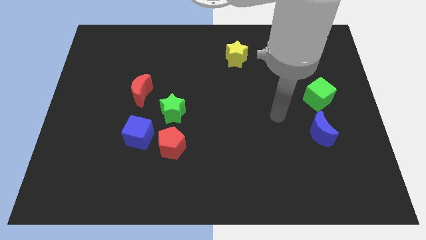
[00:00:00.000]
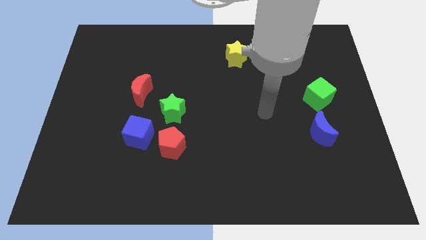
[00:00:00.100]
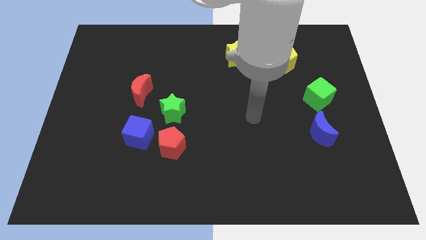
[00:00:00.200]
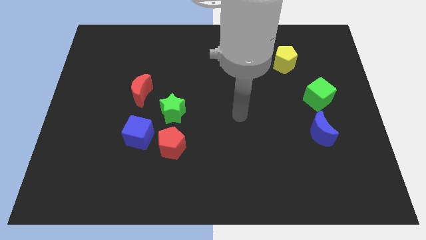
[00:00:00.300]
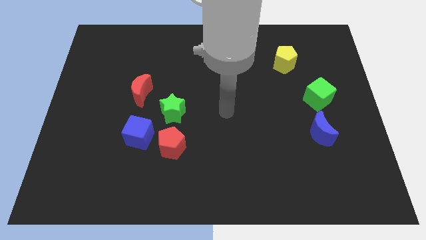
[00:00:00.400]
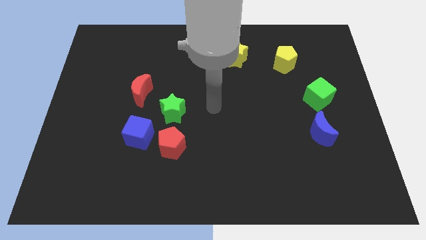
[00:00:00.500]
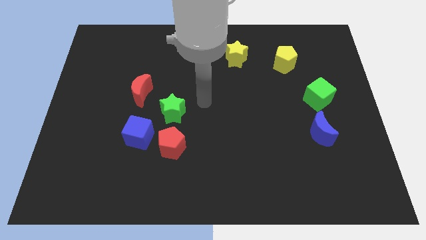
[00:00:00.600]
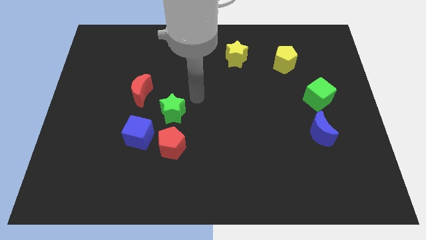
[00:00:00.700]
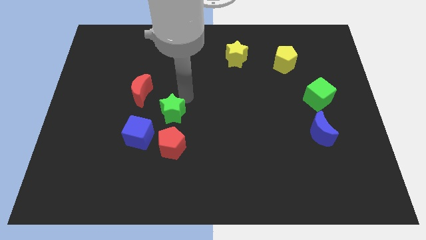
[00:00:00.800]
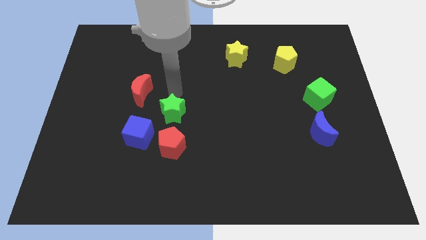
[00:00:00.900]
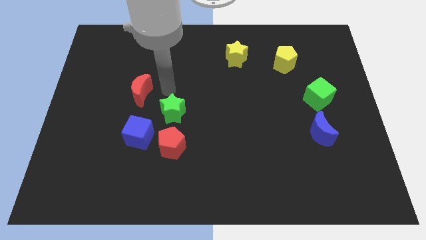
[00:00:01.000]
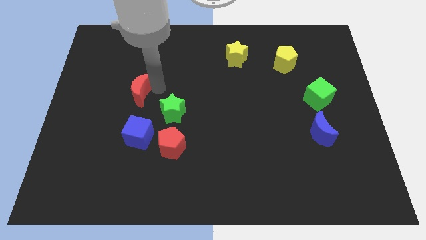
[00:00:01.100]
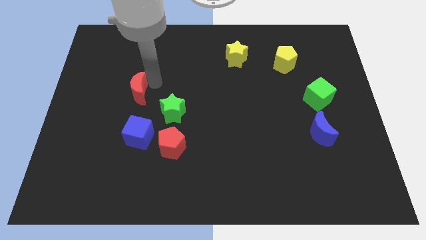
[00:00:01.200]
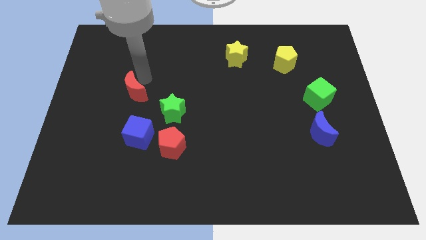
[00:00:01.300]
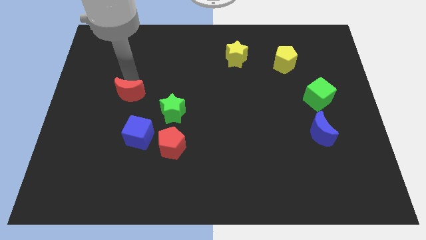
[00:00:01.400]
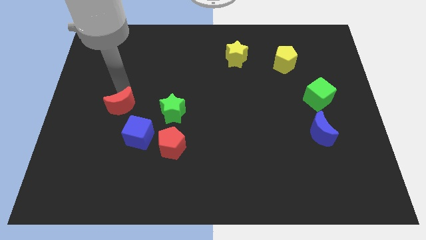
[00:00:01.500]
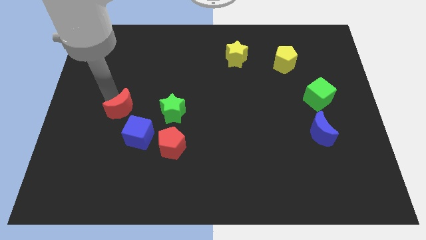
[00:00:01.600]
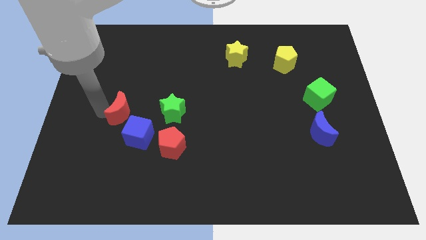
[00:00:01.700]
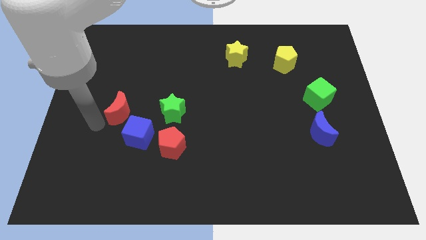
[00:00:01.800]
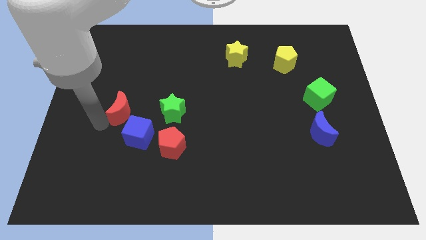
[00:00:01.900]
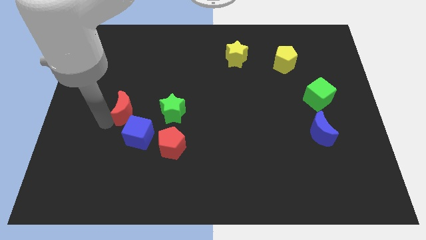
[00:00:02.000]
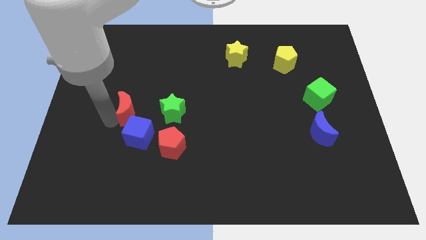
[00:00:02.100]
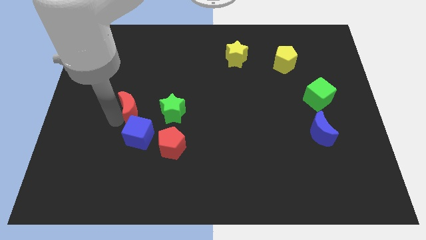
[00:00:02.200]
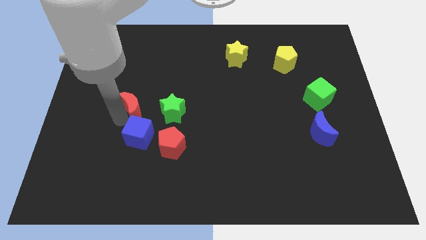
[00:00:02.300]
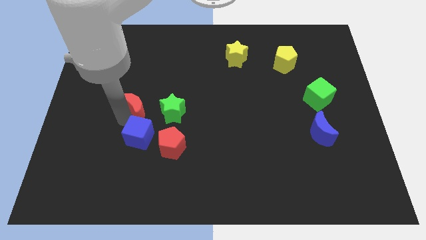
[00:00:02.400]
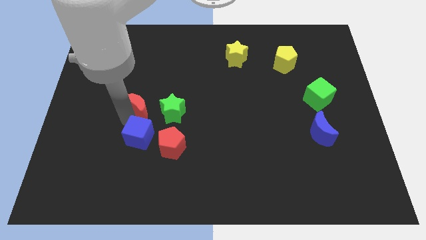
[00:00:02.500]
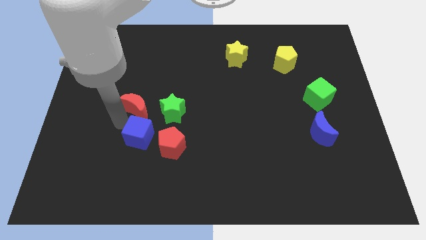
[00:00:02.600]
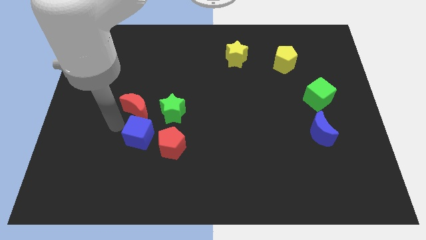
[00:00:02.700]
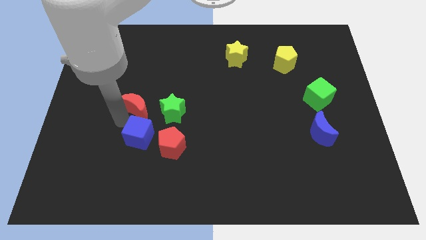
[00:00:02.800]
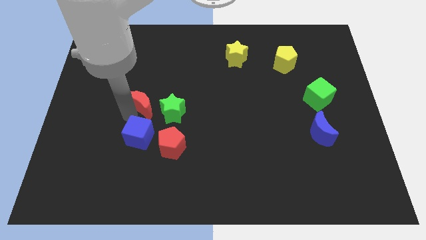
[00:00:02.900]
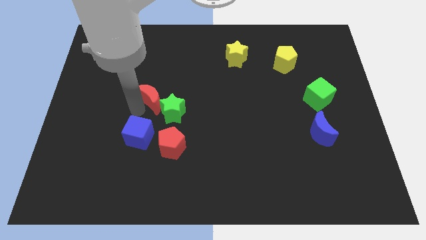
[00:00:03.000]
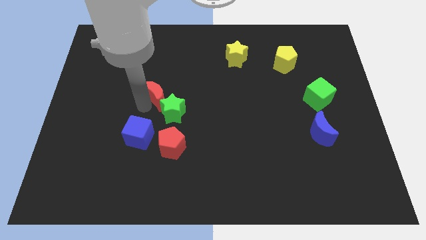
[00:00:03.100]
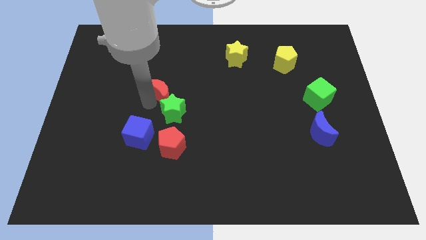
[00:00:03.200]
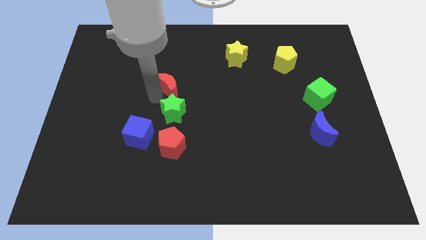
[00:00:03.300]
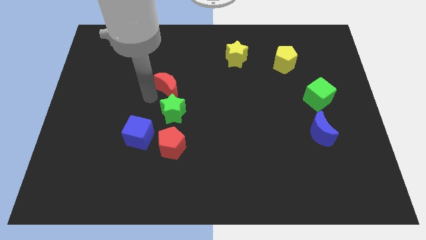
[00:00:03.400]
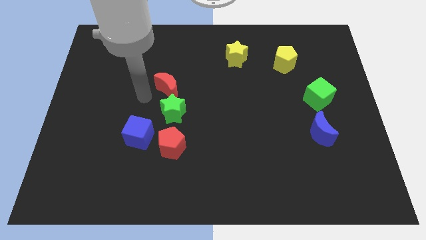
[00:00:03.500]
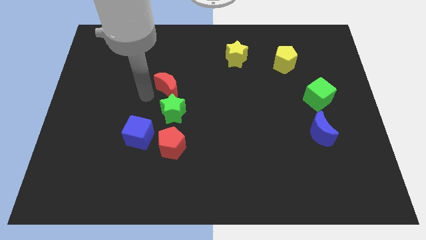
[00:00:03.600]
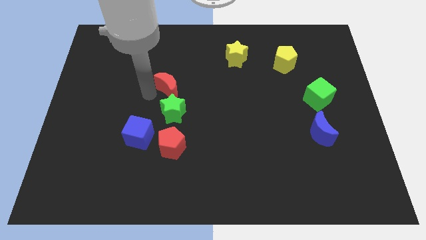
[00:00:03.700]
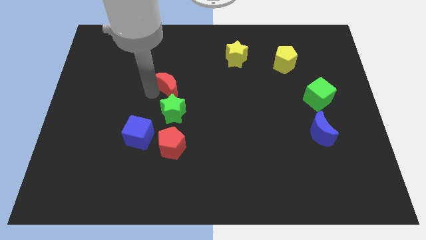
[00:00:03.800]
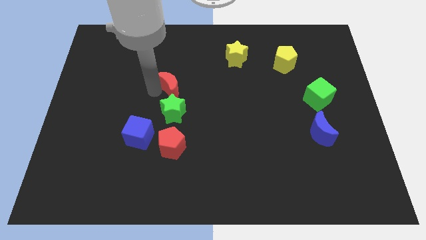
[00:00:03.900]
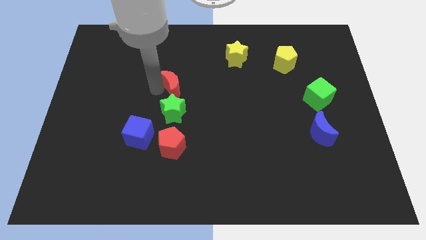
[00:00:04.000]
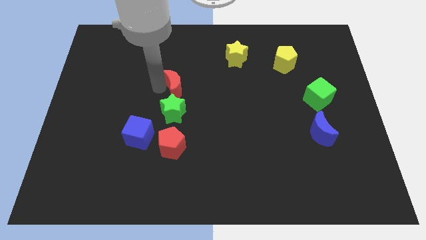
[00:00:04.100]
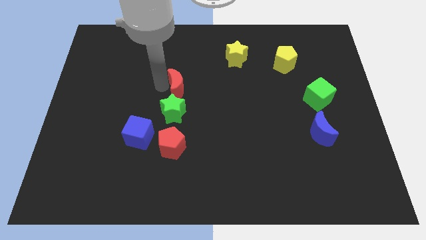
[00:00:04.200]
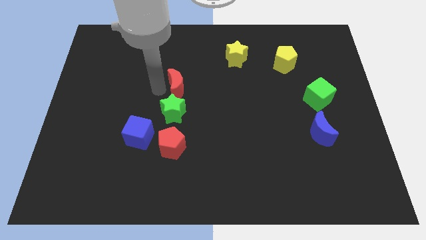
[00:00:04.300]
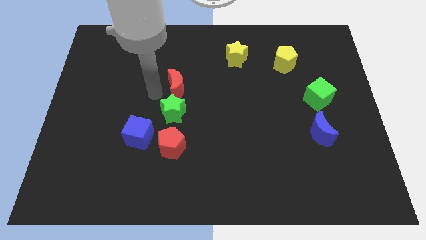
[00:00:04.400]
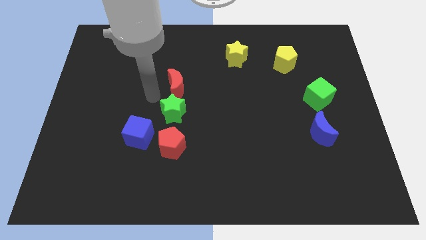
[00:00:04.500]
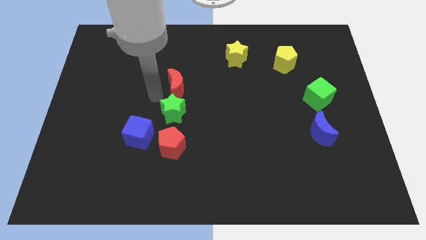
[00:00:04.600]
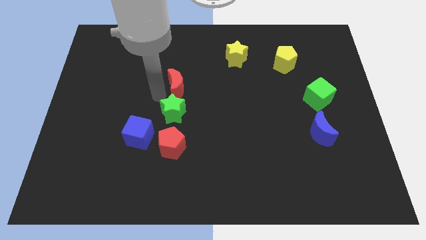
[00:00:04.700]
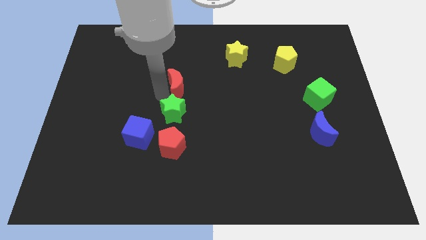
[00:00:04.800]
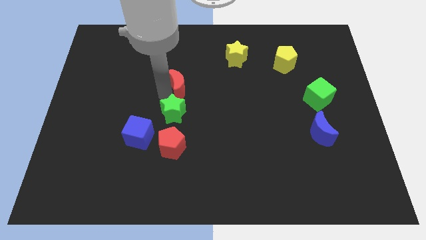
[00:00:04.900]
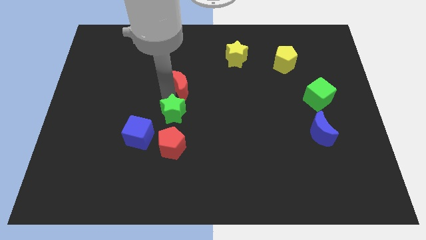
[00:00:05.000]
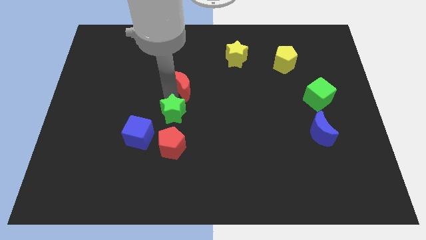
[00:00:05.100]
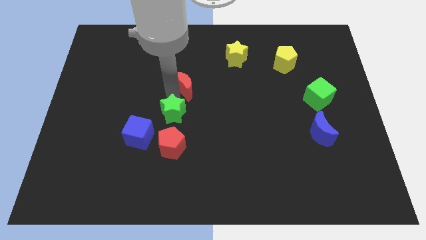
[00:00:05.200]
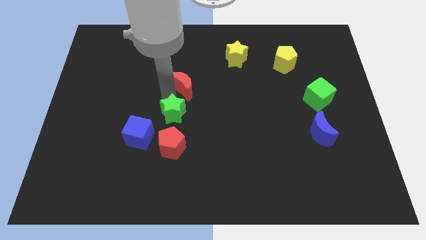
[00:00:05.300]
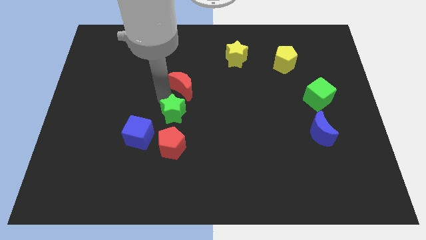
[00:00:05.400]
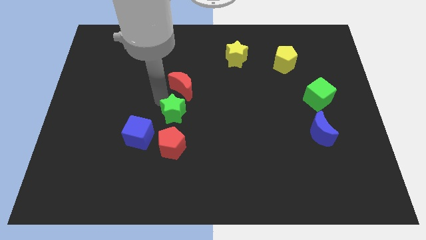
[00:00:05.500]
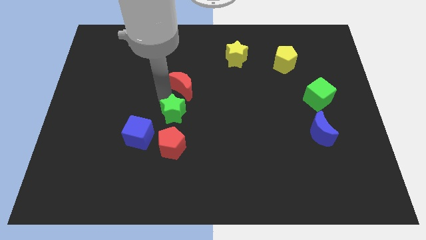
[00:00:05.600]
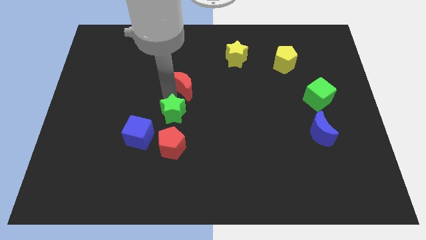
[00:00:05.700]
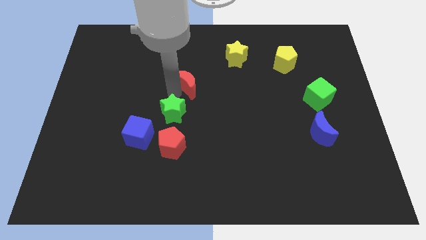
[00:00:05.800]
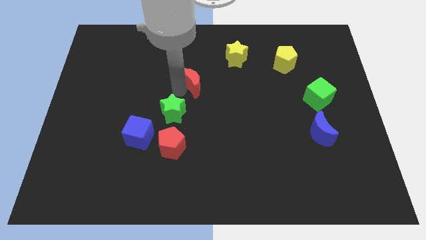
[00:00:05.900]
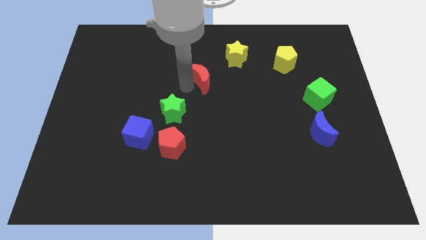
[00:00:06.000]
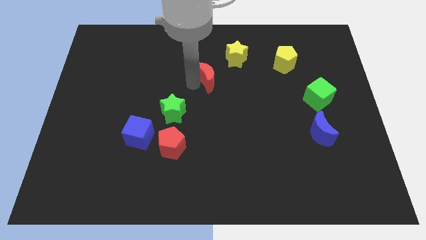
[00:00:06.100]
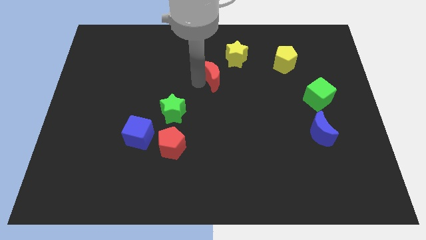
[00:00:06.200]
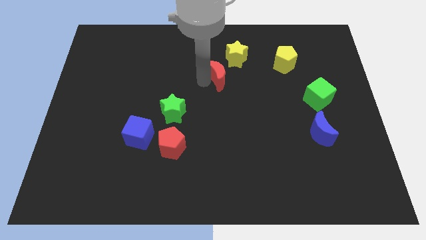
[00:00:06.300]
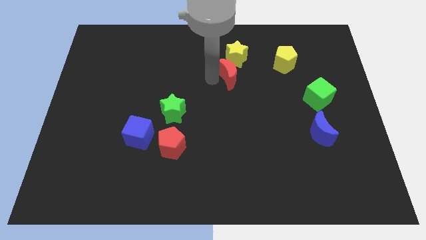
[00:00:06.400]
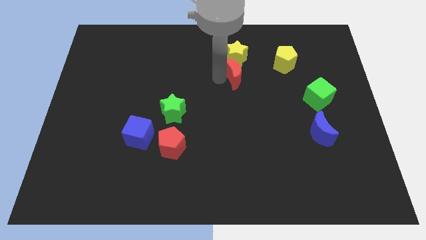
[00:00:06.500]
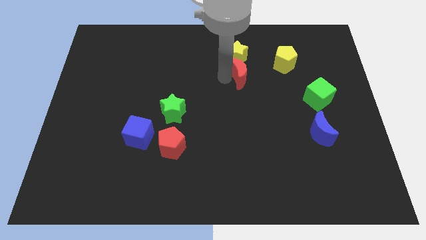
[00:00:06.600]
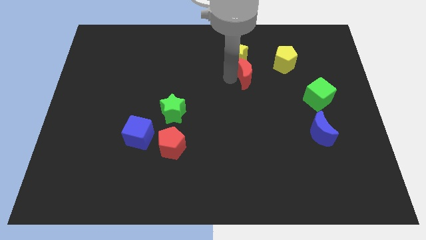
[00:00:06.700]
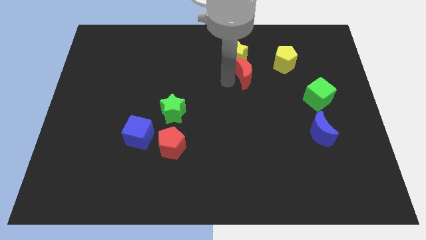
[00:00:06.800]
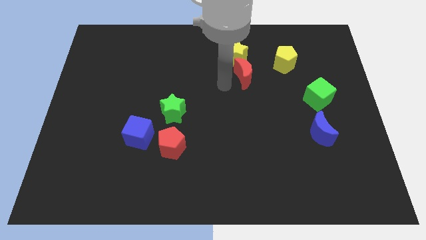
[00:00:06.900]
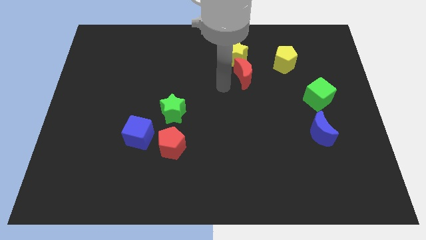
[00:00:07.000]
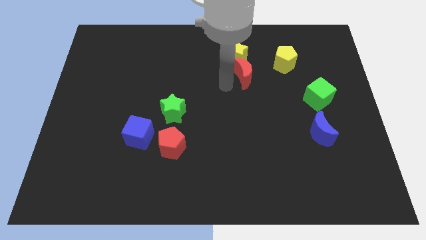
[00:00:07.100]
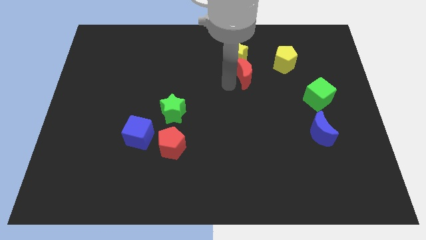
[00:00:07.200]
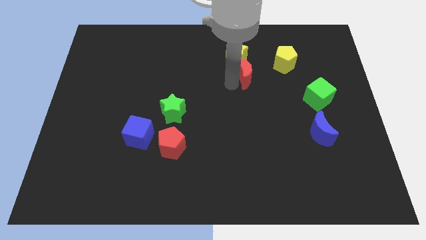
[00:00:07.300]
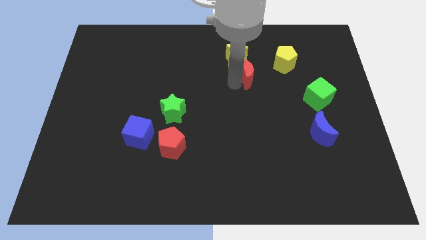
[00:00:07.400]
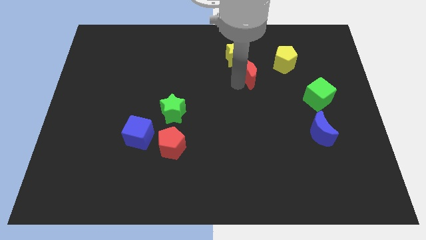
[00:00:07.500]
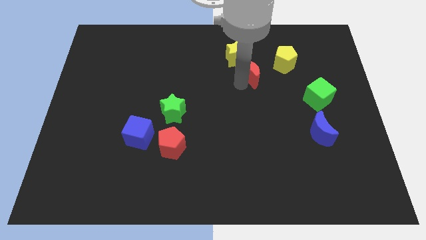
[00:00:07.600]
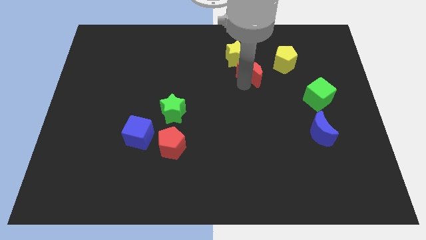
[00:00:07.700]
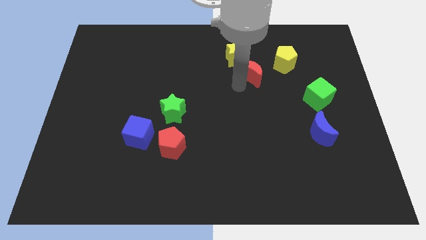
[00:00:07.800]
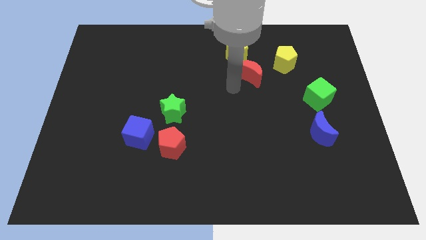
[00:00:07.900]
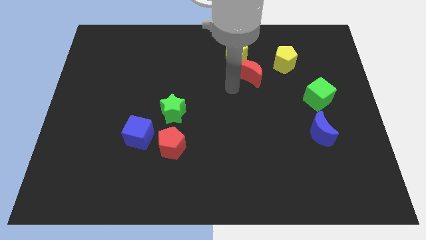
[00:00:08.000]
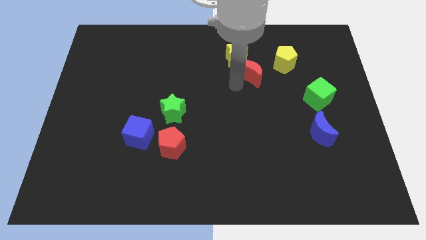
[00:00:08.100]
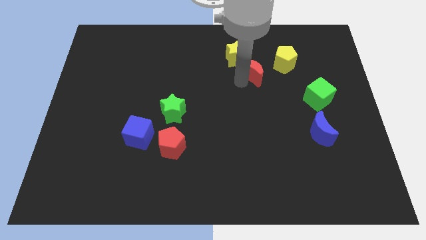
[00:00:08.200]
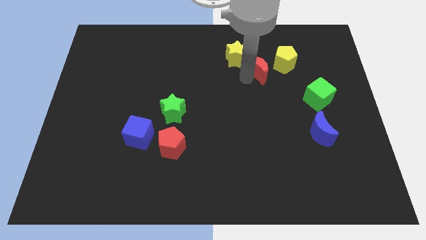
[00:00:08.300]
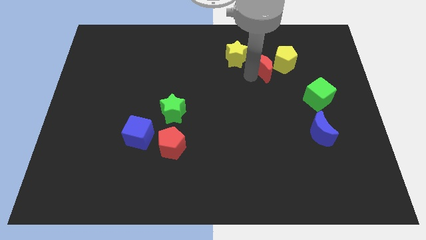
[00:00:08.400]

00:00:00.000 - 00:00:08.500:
put the red moon towards the yellow pentagon
